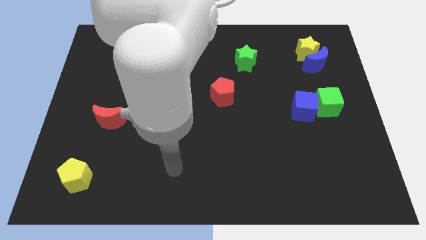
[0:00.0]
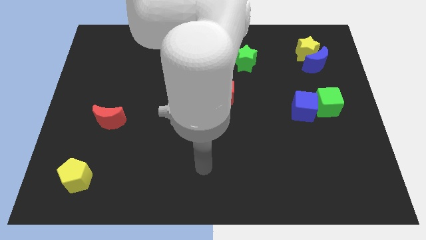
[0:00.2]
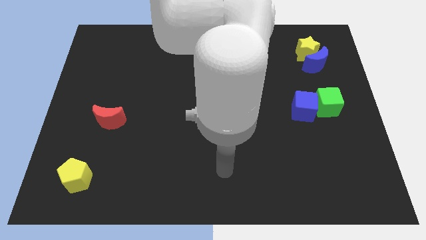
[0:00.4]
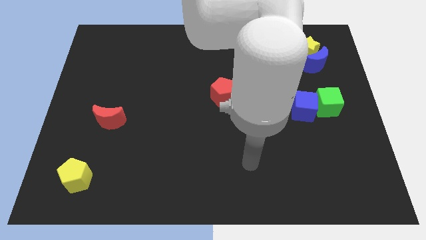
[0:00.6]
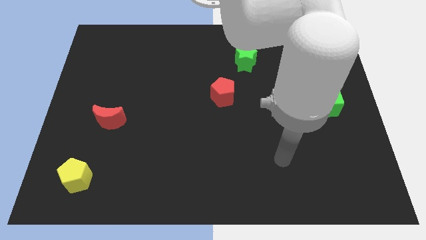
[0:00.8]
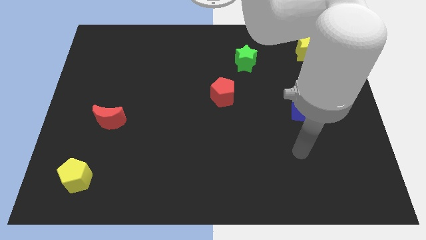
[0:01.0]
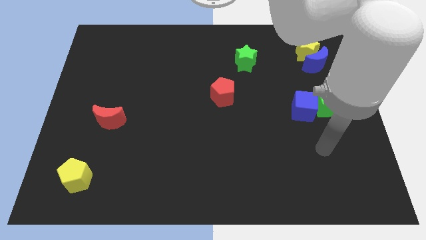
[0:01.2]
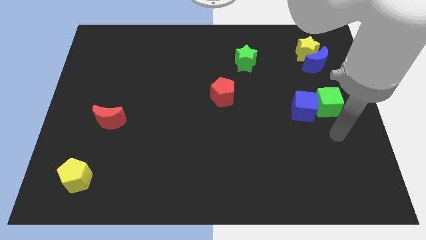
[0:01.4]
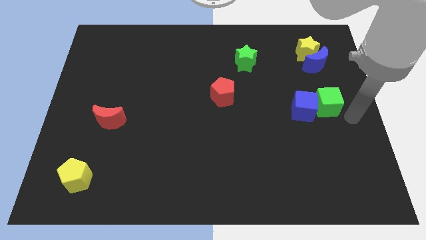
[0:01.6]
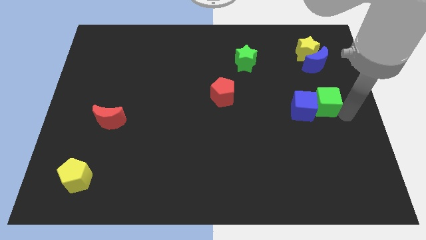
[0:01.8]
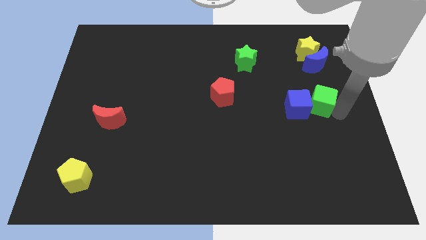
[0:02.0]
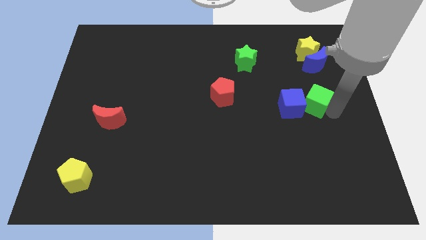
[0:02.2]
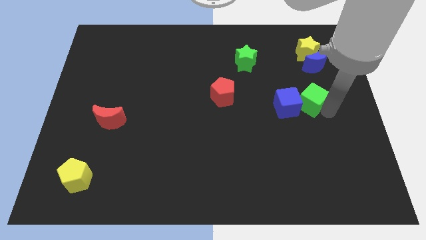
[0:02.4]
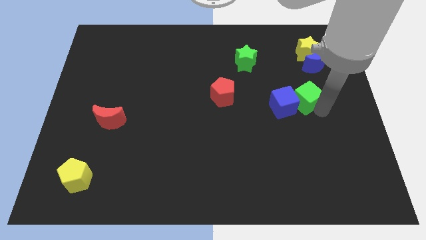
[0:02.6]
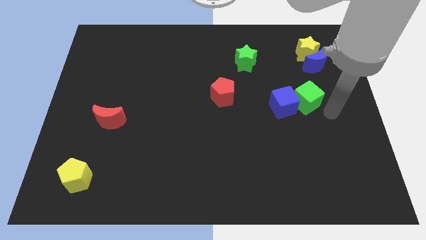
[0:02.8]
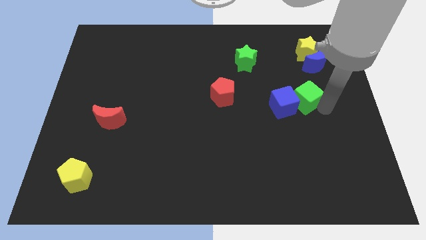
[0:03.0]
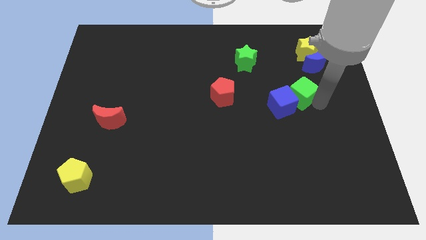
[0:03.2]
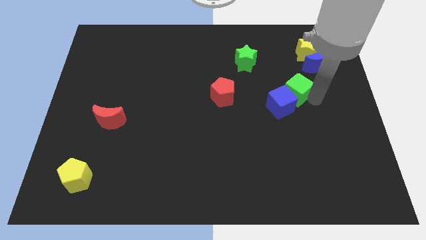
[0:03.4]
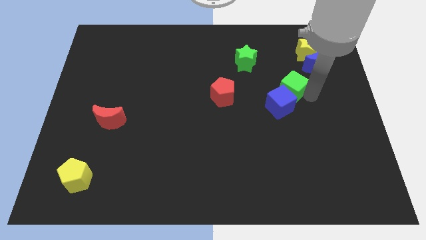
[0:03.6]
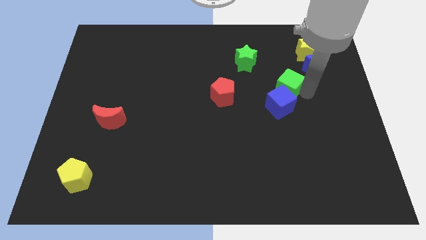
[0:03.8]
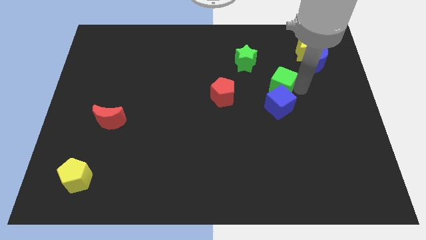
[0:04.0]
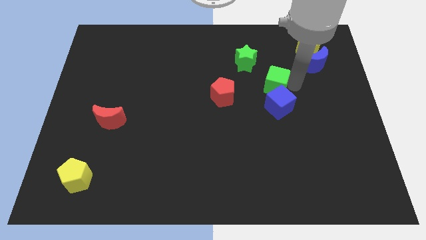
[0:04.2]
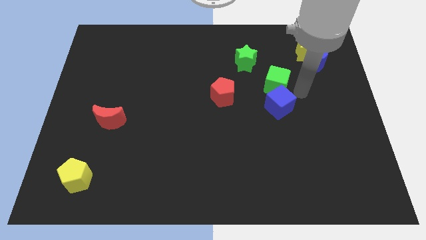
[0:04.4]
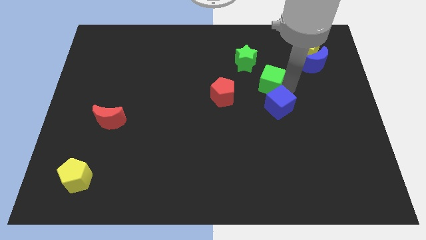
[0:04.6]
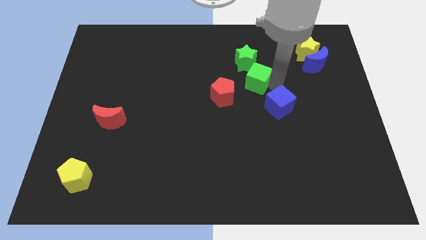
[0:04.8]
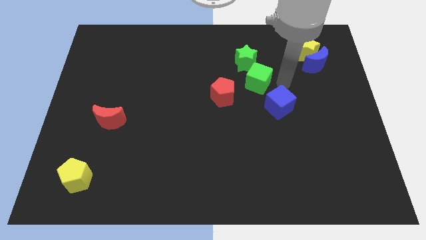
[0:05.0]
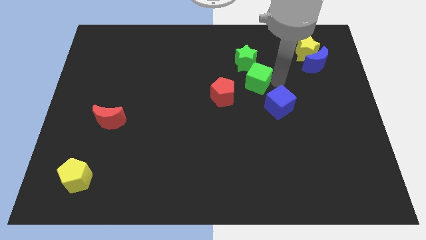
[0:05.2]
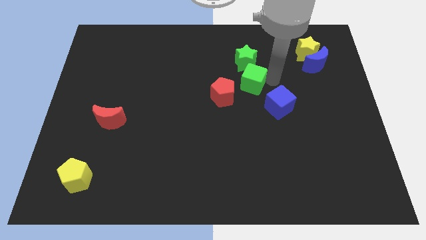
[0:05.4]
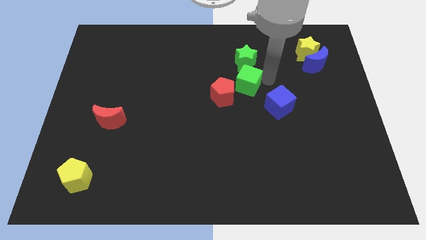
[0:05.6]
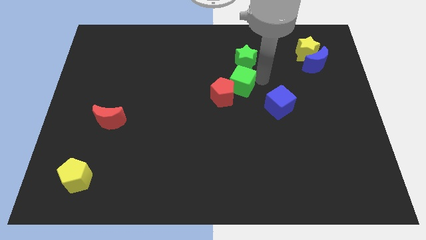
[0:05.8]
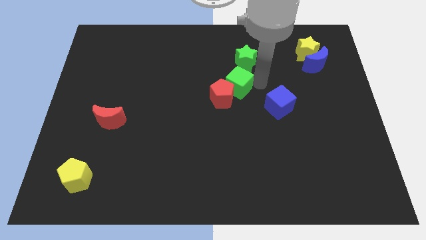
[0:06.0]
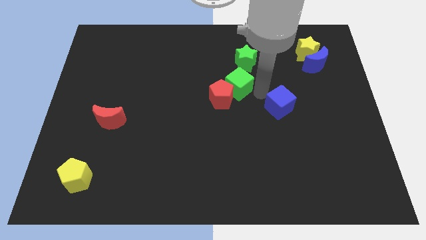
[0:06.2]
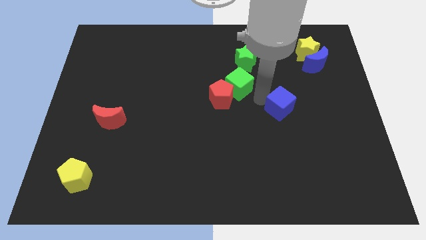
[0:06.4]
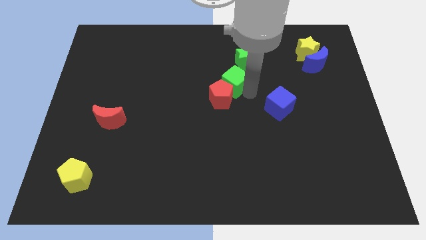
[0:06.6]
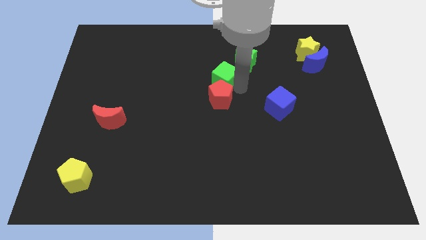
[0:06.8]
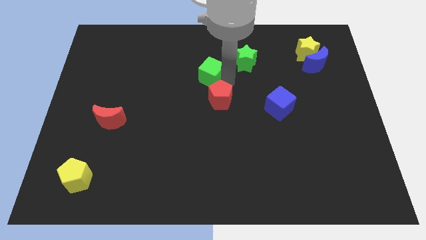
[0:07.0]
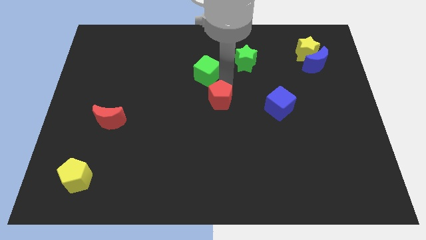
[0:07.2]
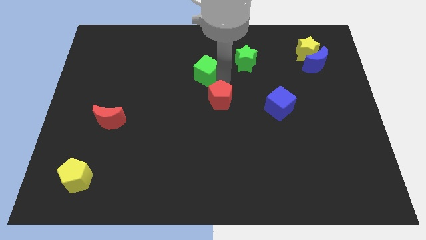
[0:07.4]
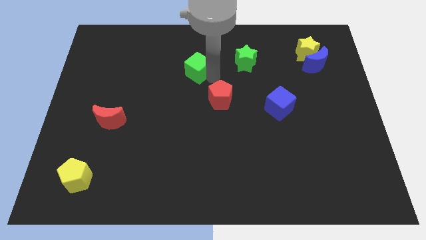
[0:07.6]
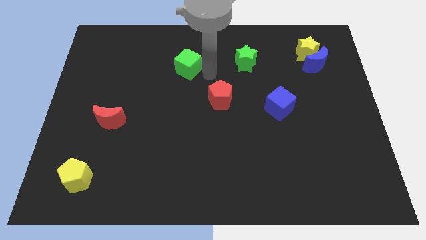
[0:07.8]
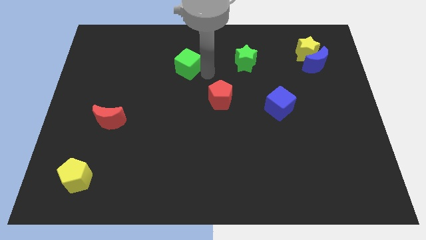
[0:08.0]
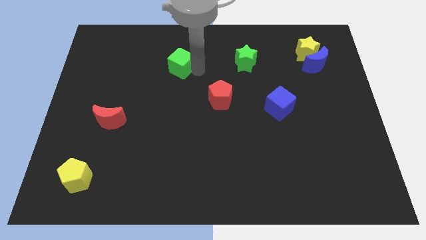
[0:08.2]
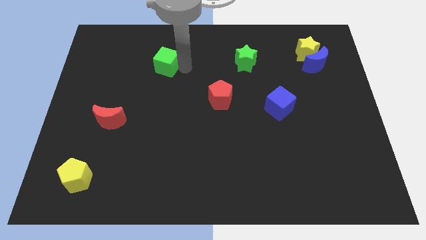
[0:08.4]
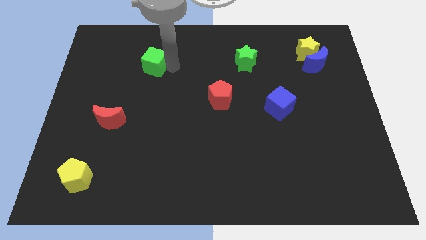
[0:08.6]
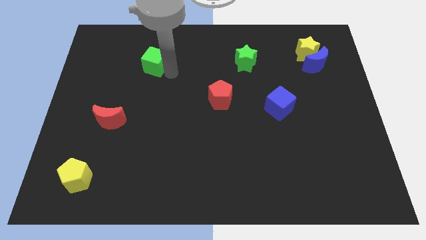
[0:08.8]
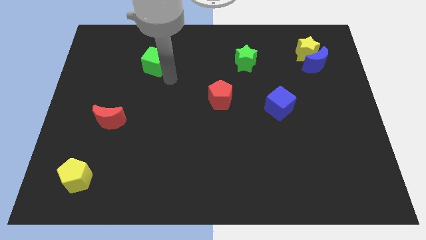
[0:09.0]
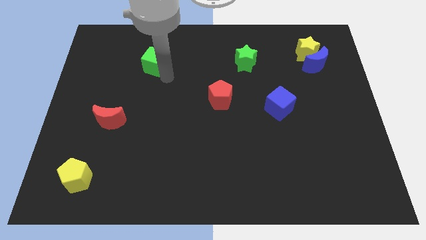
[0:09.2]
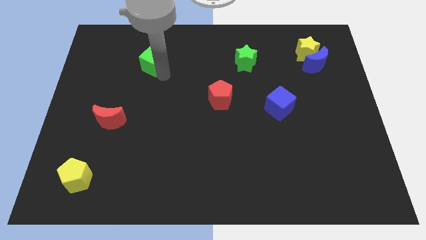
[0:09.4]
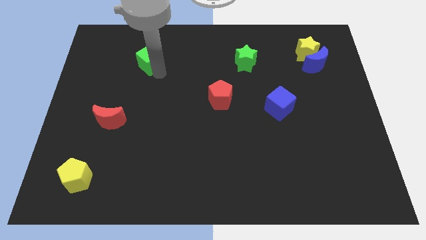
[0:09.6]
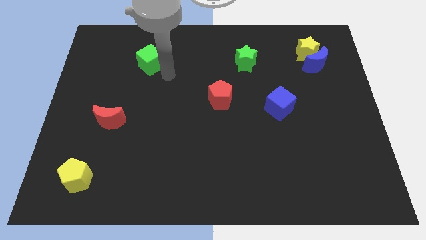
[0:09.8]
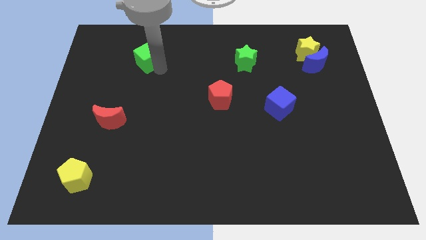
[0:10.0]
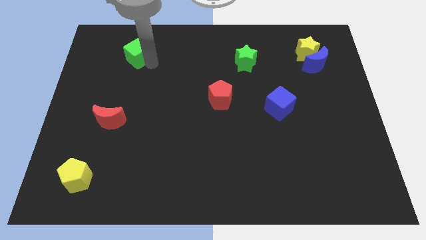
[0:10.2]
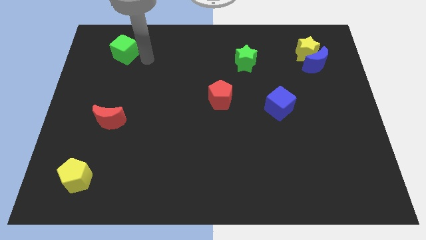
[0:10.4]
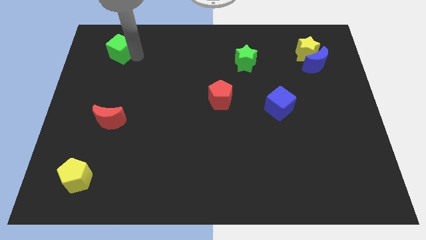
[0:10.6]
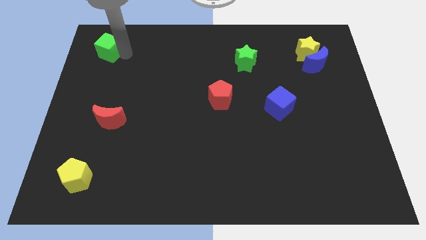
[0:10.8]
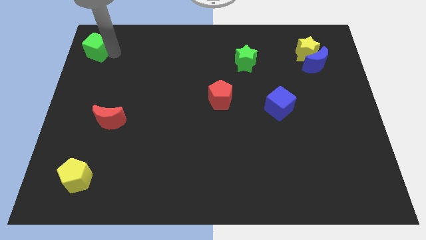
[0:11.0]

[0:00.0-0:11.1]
move the green cube to the upper left corner

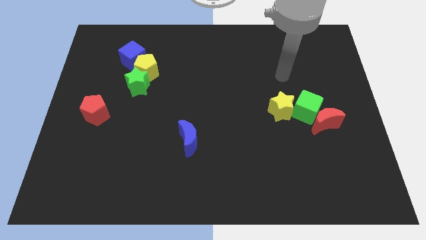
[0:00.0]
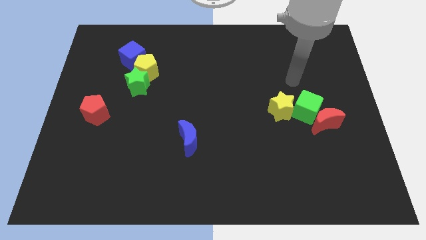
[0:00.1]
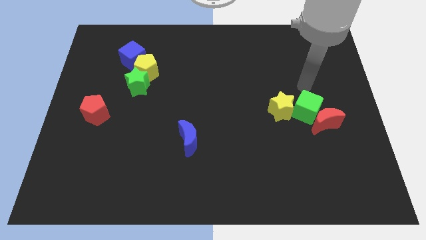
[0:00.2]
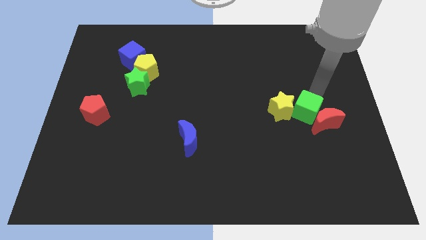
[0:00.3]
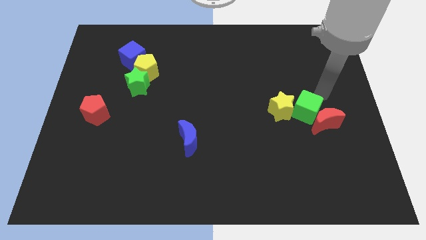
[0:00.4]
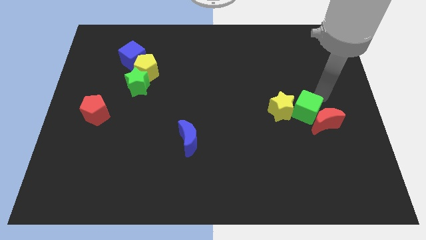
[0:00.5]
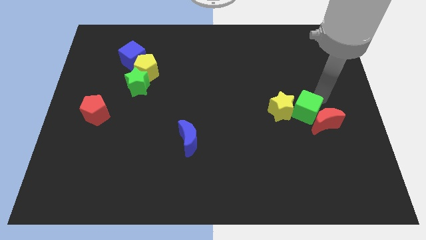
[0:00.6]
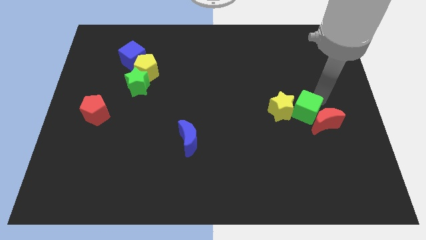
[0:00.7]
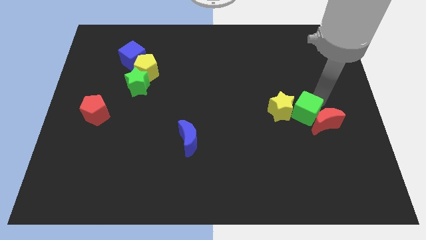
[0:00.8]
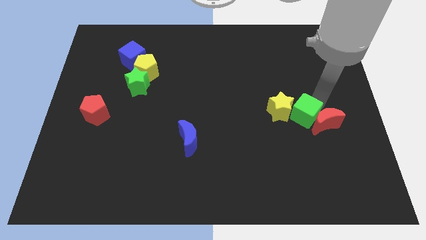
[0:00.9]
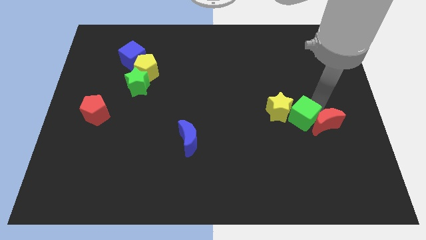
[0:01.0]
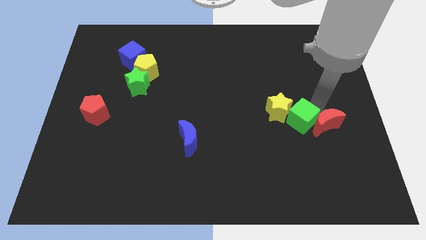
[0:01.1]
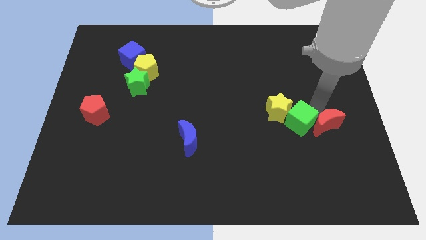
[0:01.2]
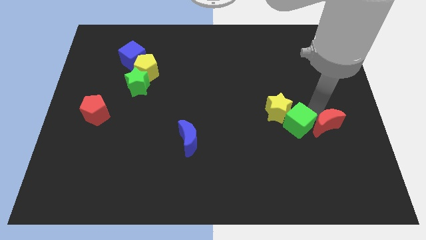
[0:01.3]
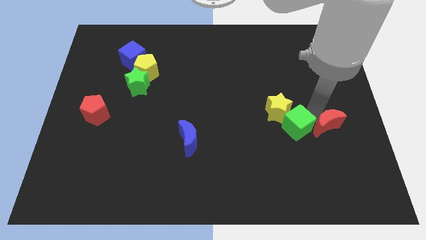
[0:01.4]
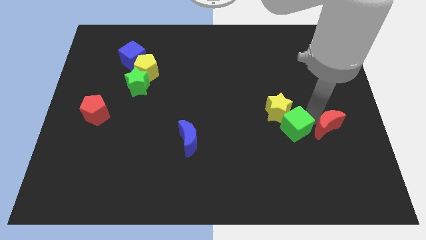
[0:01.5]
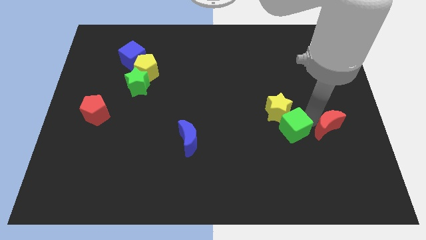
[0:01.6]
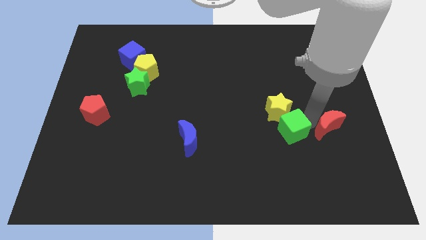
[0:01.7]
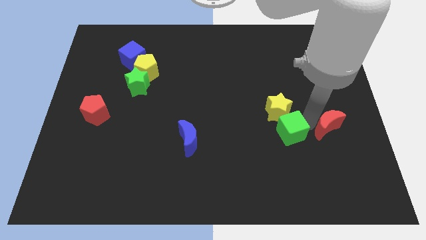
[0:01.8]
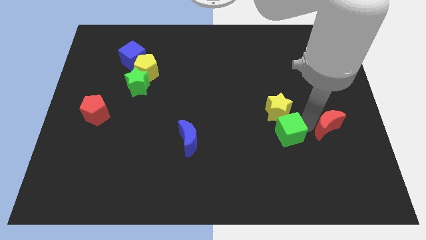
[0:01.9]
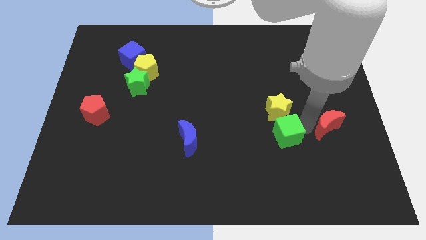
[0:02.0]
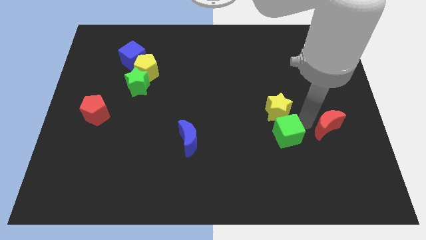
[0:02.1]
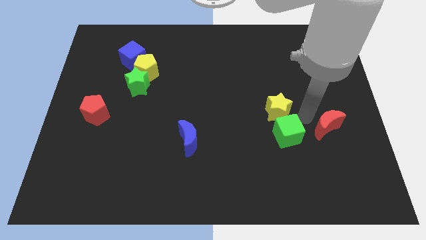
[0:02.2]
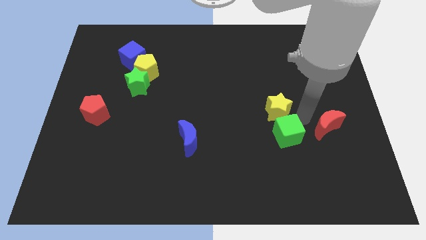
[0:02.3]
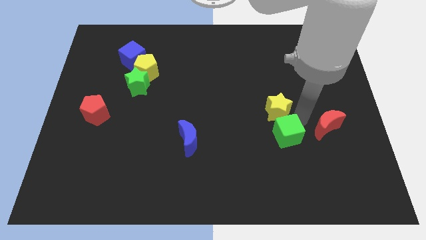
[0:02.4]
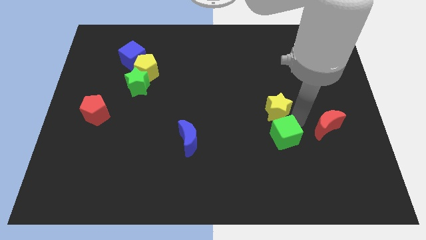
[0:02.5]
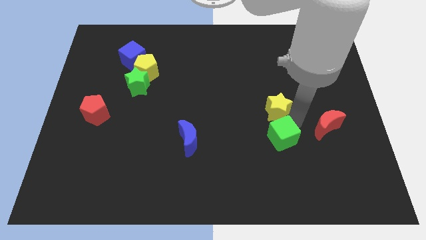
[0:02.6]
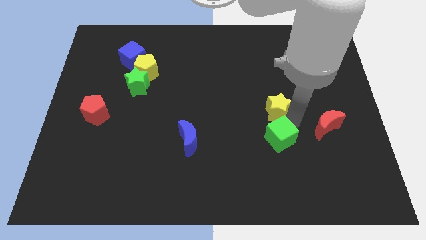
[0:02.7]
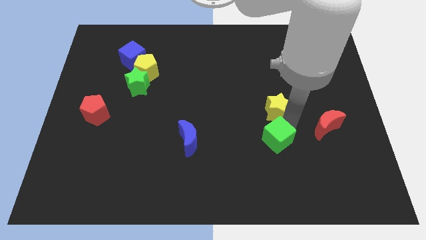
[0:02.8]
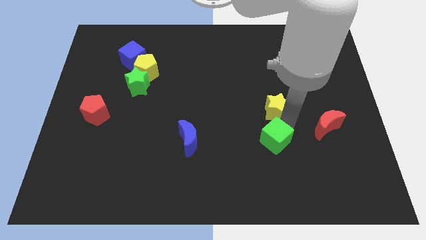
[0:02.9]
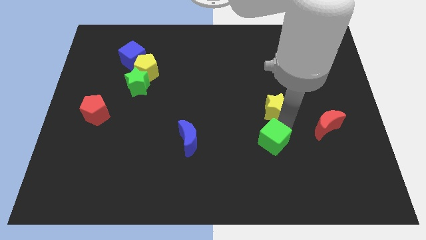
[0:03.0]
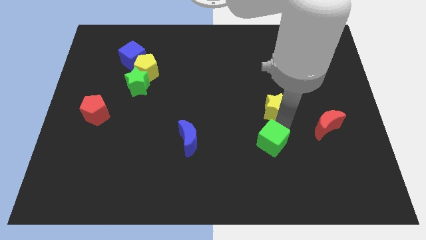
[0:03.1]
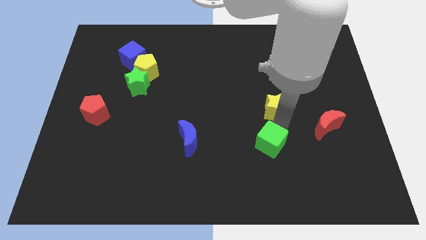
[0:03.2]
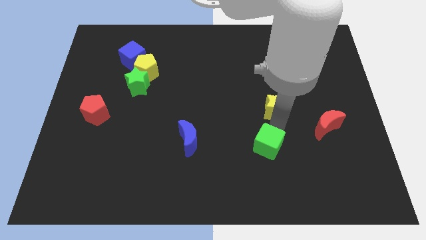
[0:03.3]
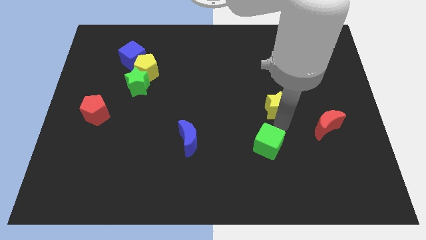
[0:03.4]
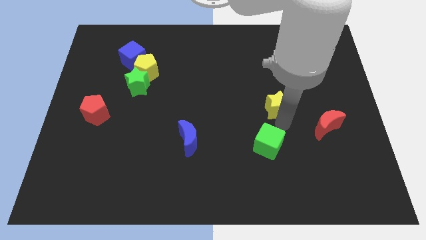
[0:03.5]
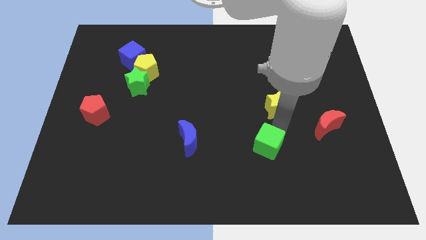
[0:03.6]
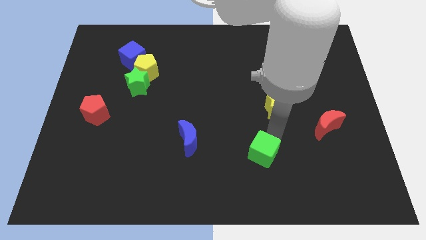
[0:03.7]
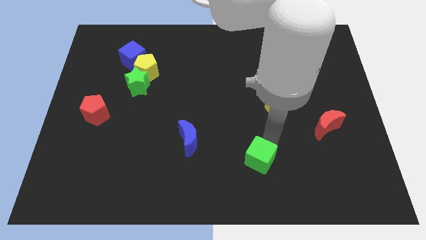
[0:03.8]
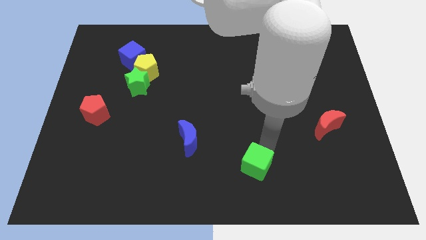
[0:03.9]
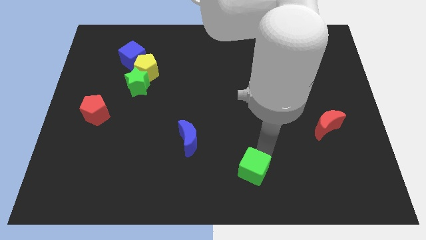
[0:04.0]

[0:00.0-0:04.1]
put the green cube to the bottom side
